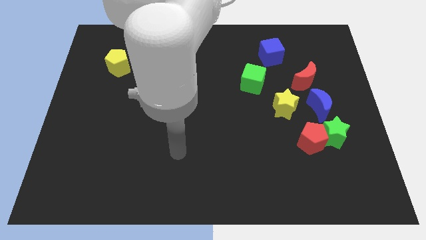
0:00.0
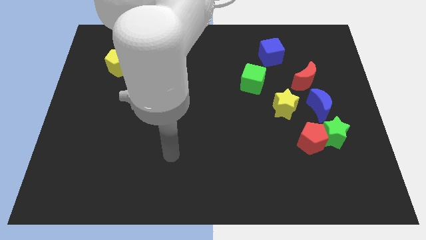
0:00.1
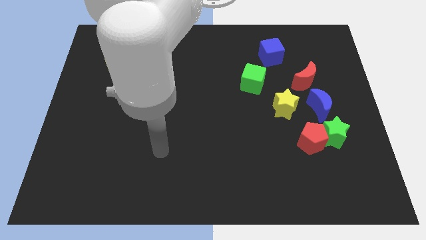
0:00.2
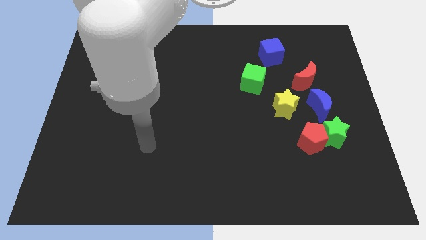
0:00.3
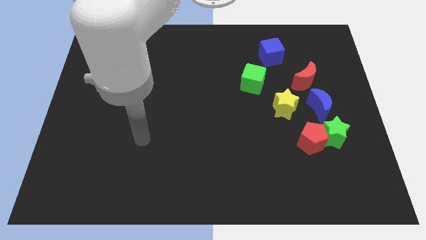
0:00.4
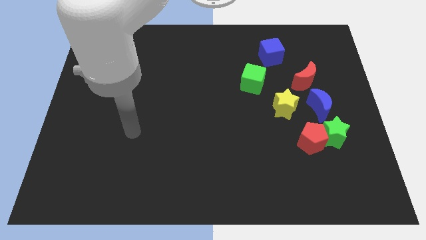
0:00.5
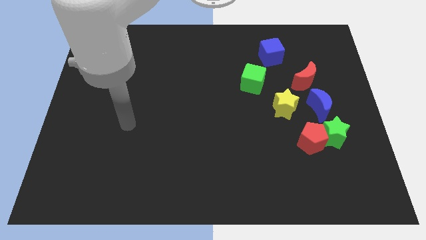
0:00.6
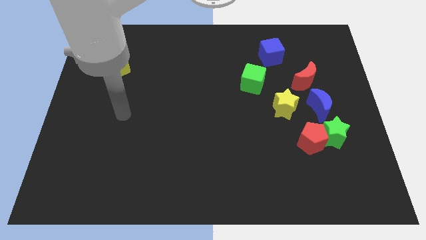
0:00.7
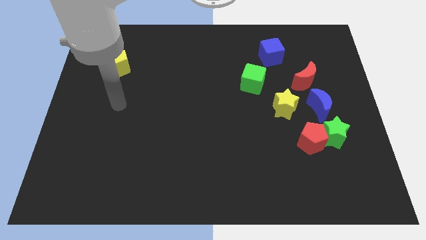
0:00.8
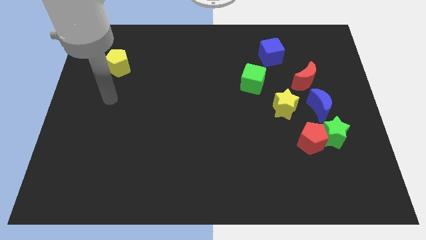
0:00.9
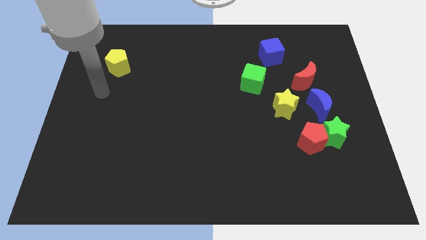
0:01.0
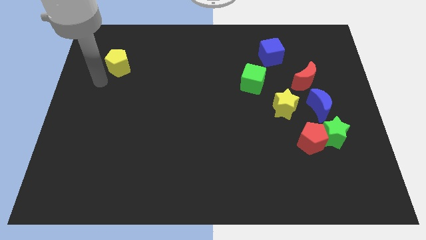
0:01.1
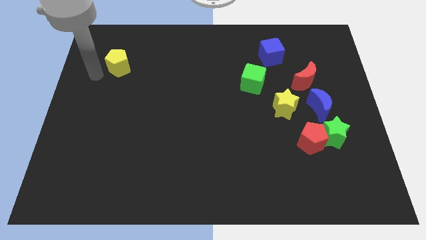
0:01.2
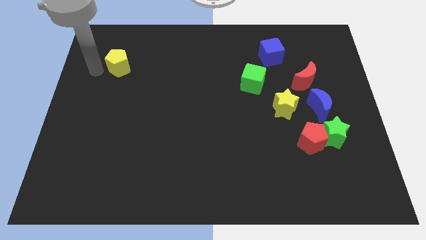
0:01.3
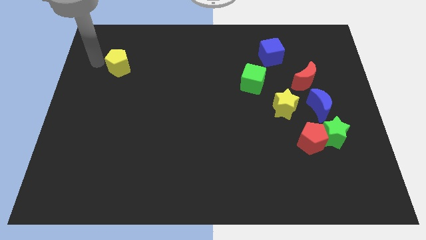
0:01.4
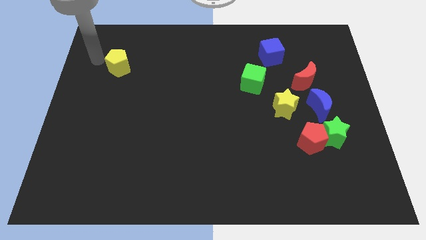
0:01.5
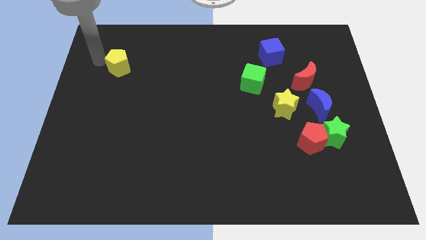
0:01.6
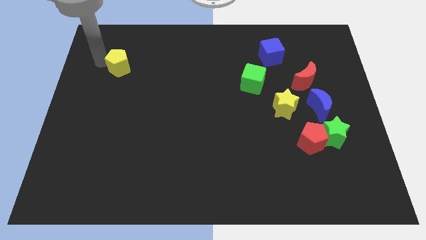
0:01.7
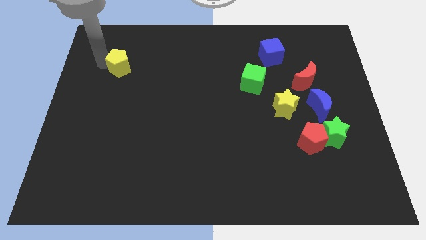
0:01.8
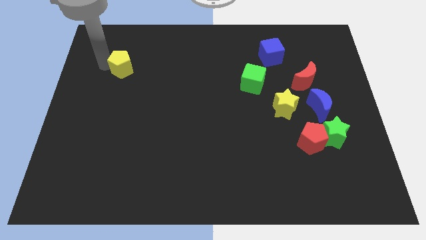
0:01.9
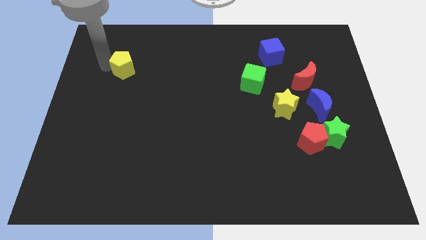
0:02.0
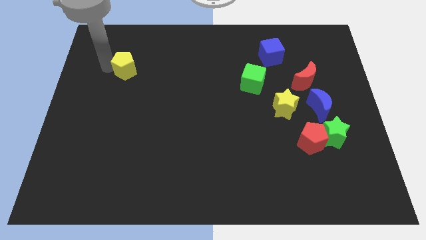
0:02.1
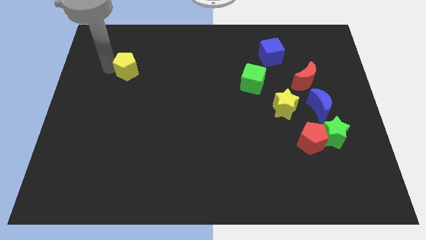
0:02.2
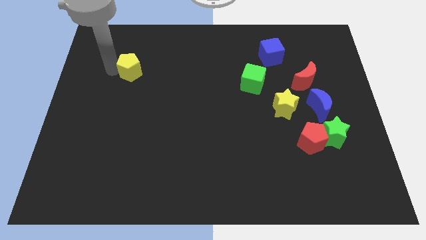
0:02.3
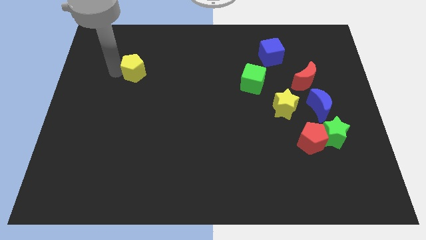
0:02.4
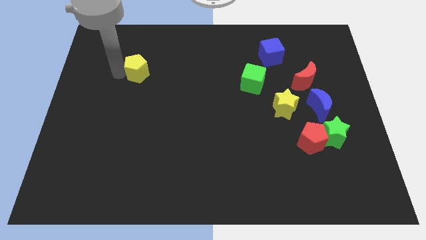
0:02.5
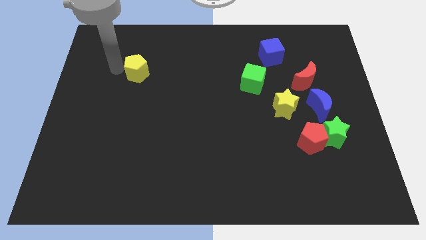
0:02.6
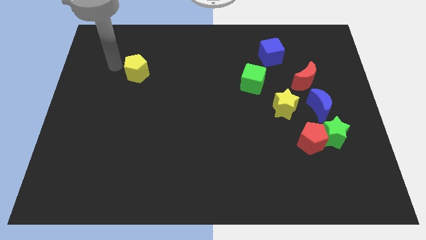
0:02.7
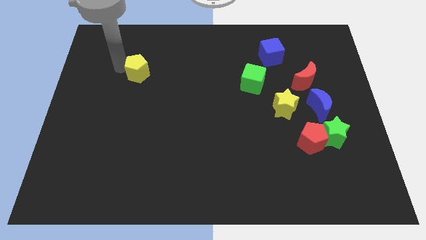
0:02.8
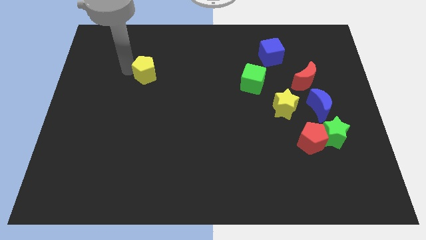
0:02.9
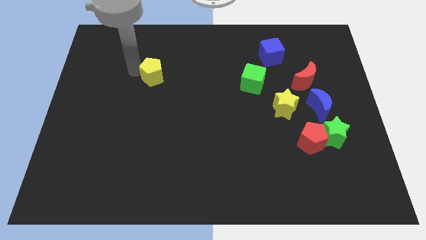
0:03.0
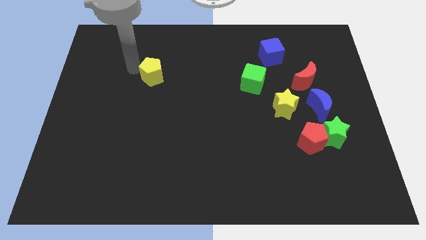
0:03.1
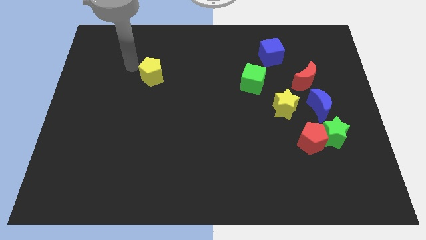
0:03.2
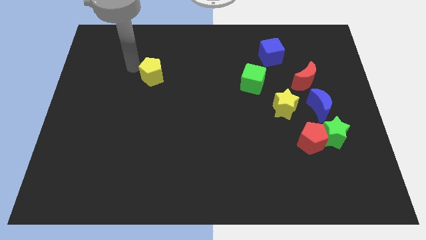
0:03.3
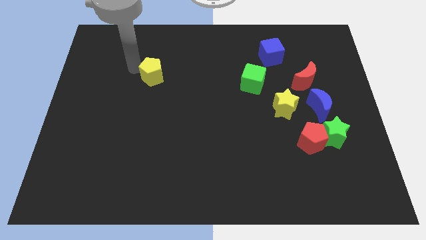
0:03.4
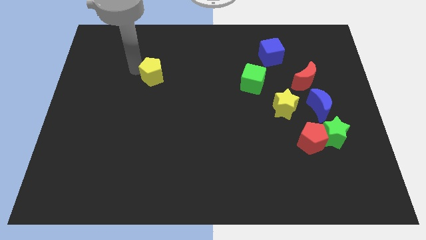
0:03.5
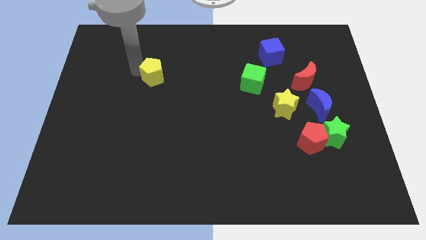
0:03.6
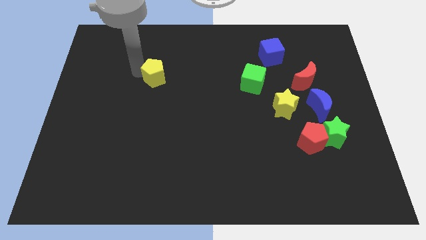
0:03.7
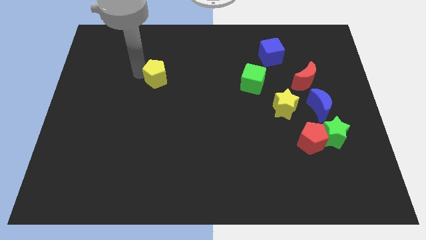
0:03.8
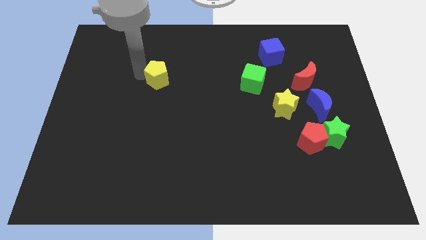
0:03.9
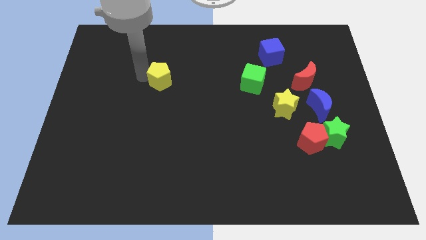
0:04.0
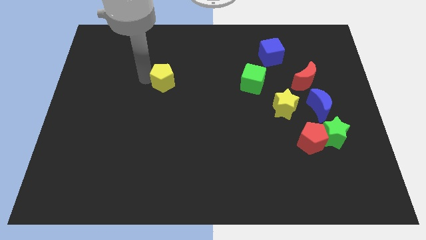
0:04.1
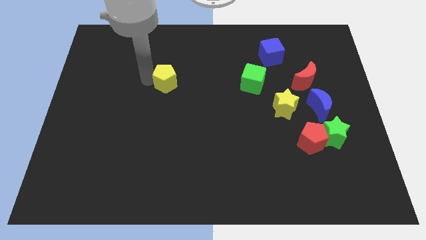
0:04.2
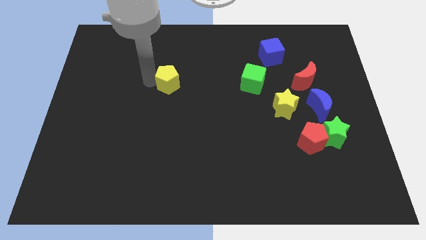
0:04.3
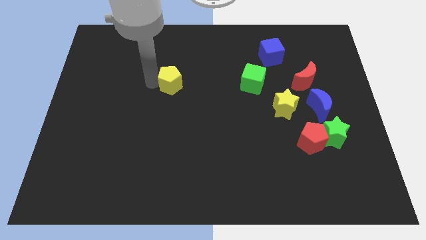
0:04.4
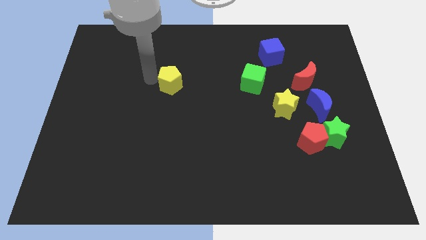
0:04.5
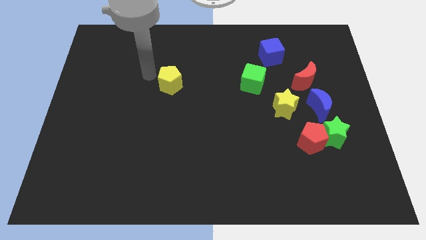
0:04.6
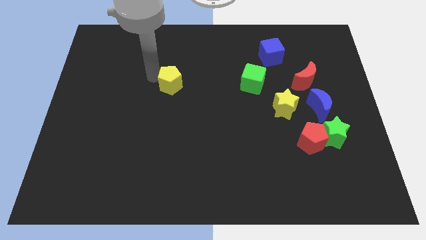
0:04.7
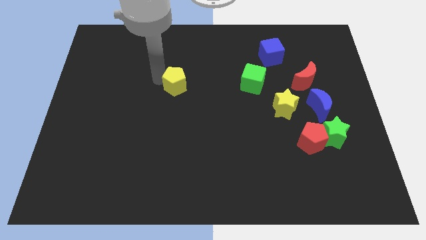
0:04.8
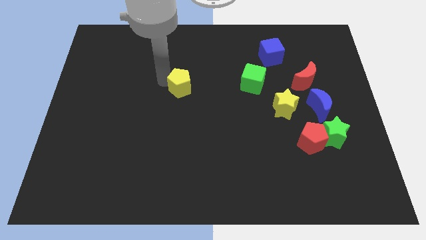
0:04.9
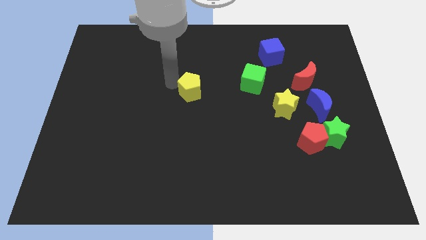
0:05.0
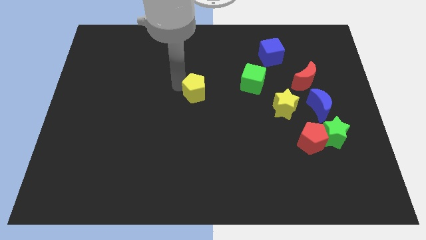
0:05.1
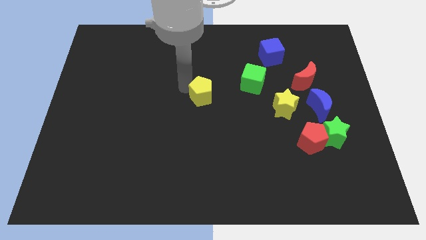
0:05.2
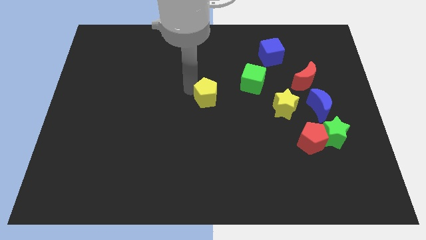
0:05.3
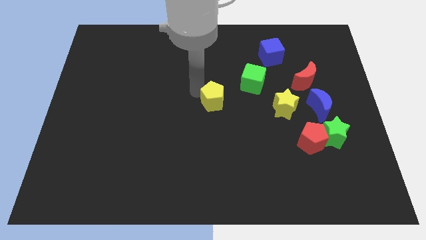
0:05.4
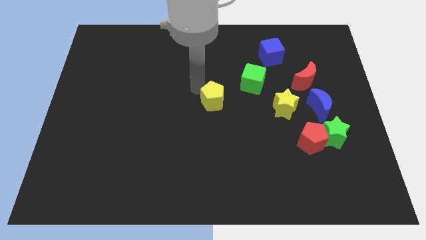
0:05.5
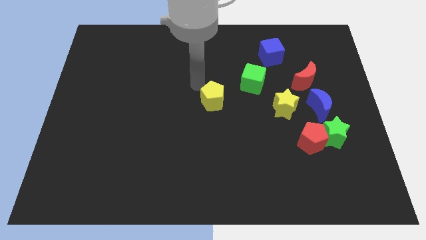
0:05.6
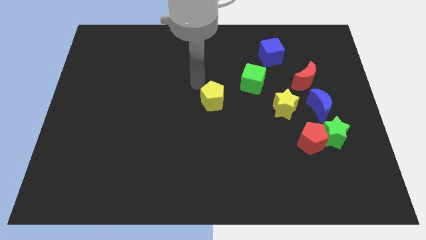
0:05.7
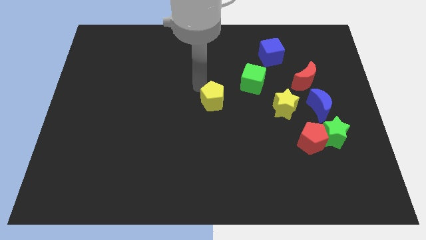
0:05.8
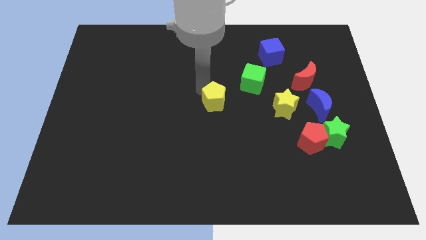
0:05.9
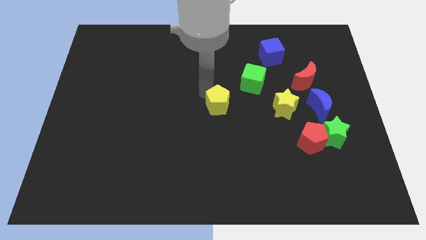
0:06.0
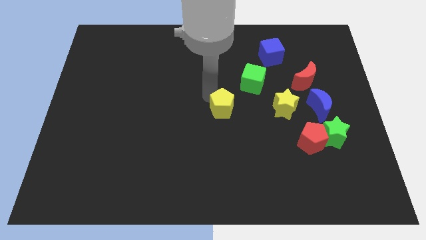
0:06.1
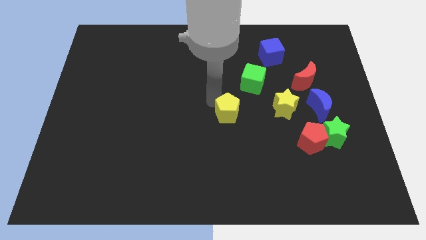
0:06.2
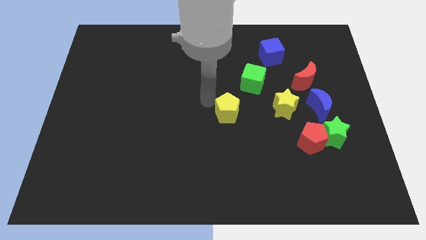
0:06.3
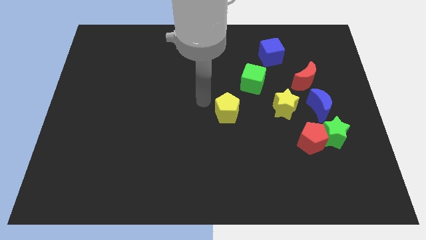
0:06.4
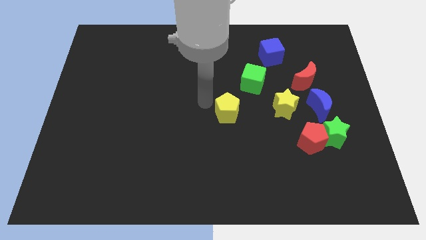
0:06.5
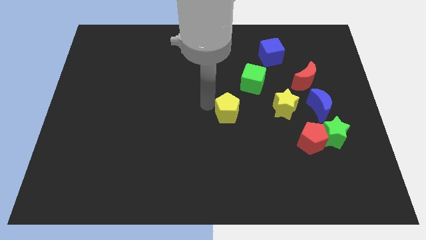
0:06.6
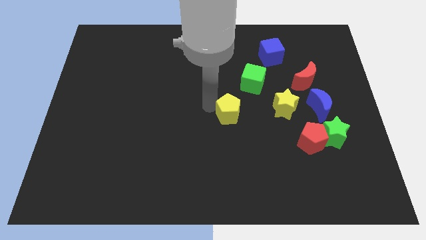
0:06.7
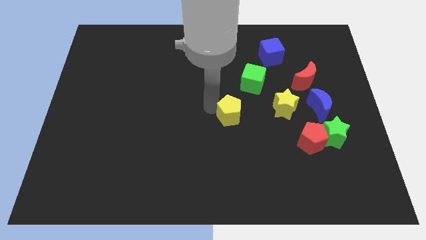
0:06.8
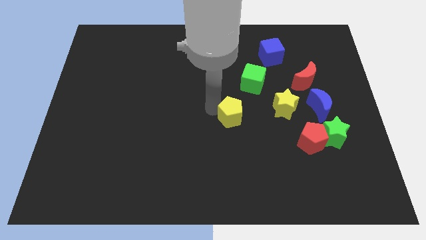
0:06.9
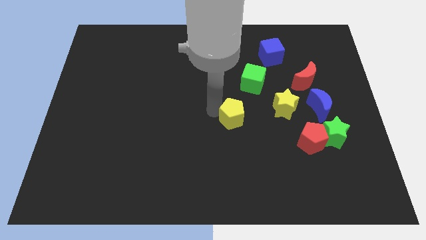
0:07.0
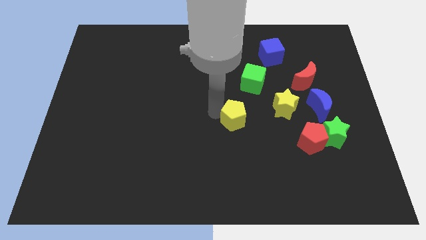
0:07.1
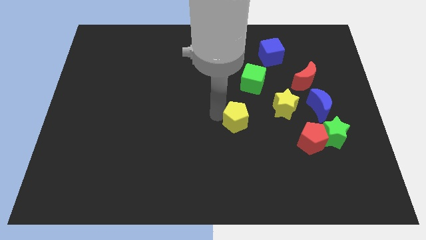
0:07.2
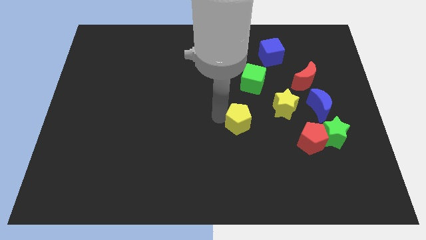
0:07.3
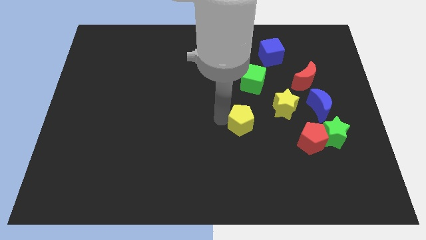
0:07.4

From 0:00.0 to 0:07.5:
move the yellow pentagon diagonally down and to the left of the yellow star
